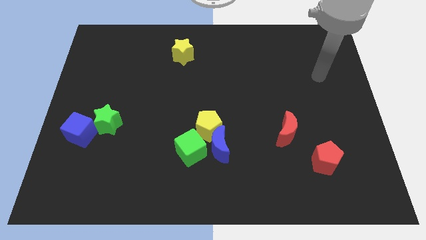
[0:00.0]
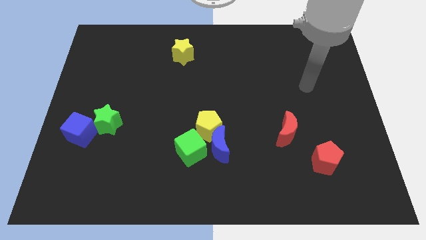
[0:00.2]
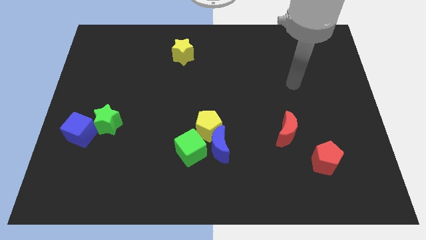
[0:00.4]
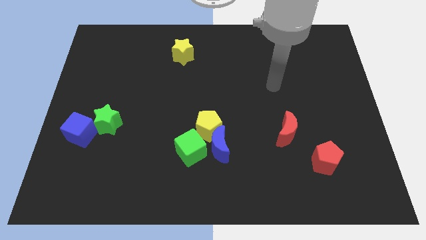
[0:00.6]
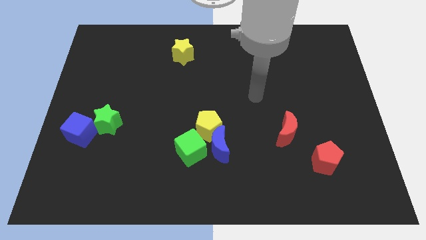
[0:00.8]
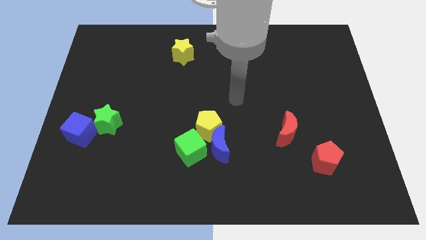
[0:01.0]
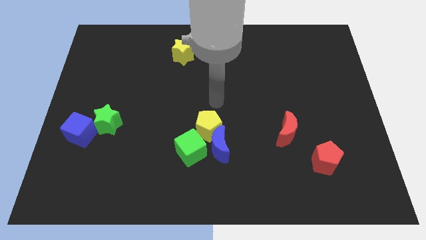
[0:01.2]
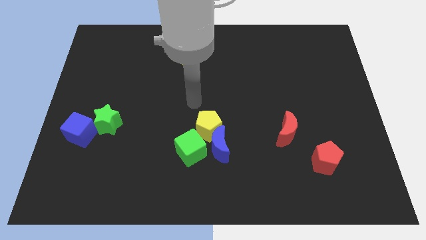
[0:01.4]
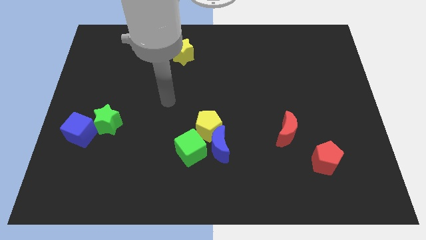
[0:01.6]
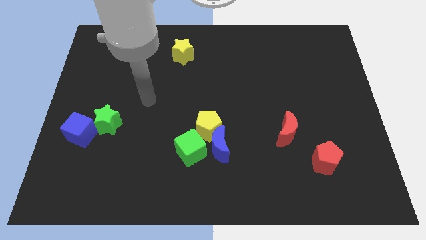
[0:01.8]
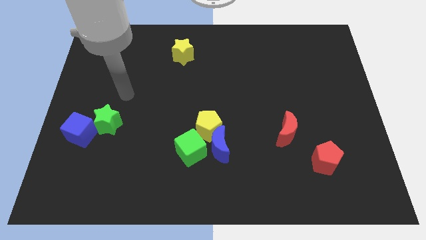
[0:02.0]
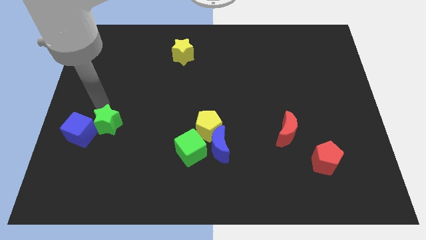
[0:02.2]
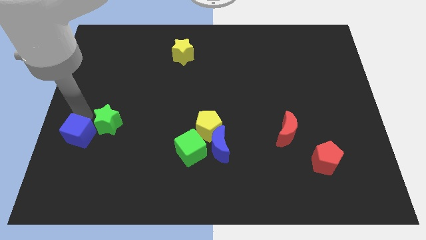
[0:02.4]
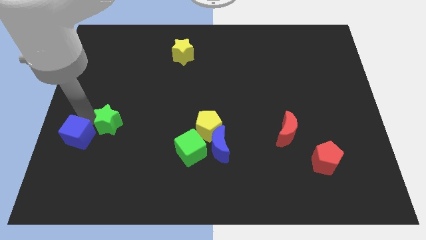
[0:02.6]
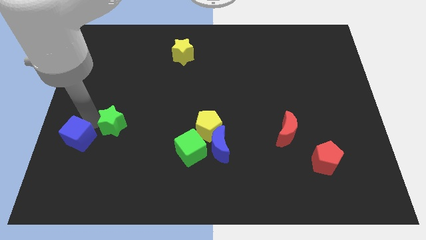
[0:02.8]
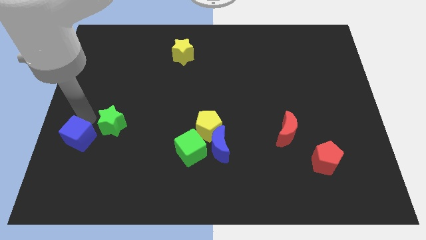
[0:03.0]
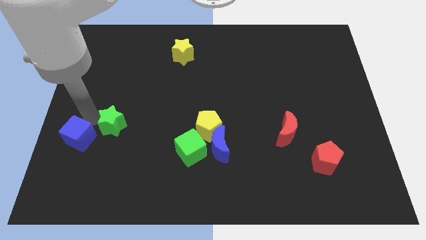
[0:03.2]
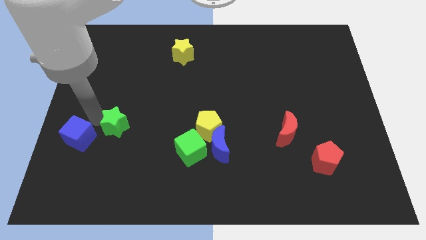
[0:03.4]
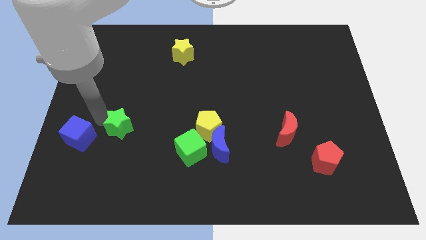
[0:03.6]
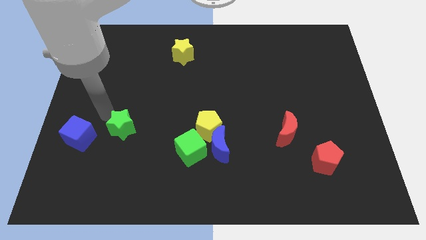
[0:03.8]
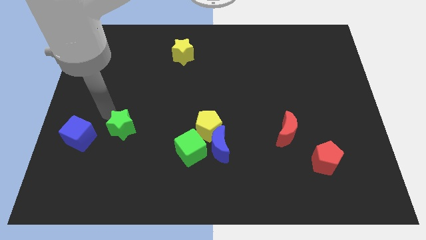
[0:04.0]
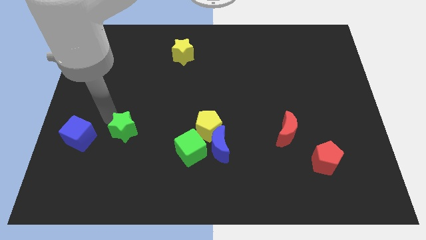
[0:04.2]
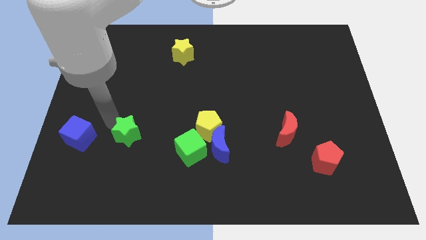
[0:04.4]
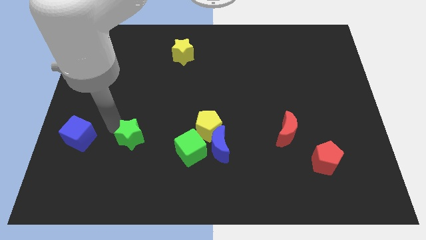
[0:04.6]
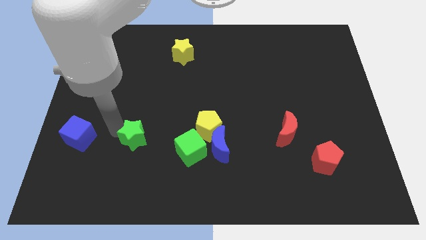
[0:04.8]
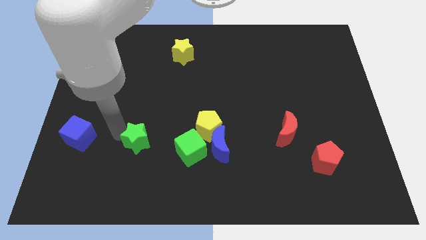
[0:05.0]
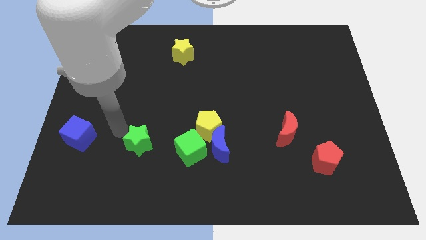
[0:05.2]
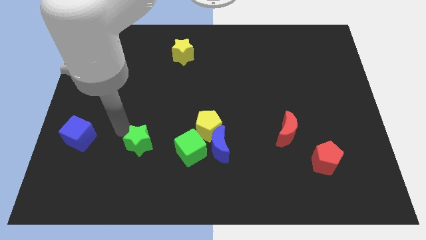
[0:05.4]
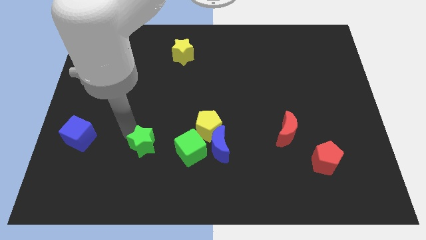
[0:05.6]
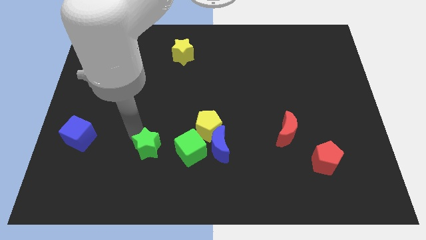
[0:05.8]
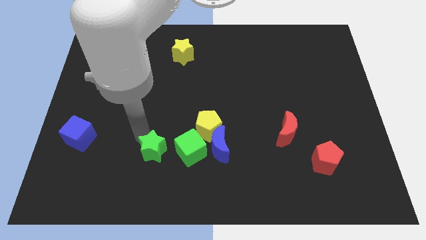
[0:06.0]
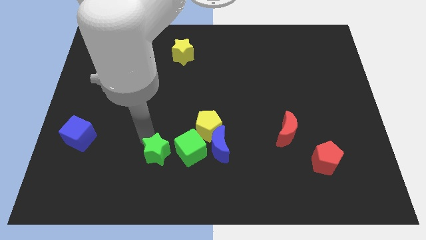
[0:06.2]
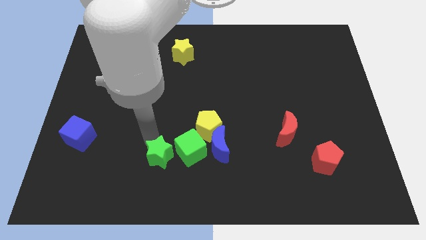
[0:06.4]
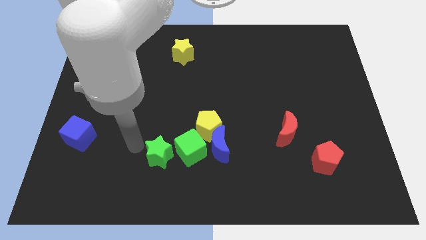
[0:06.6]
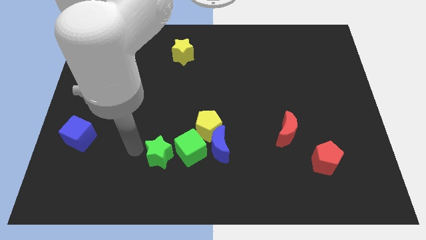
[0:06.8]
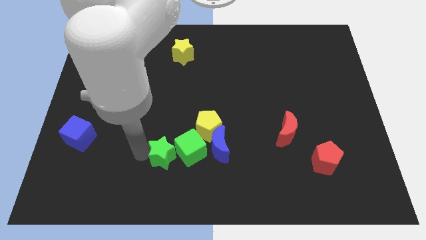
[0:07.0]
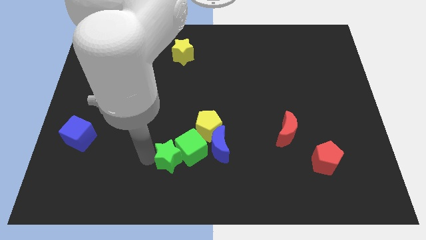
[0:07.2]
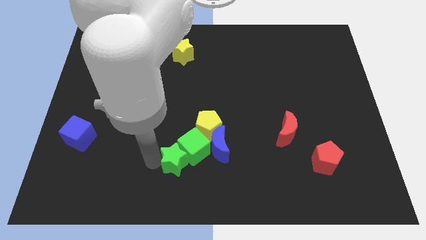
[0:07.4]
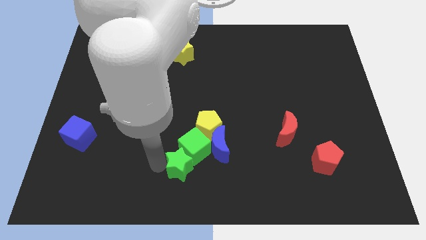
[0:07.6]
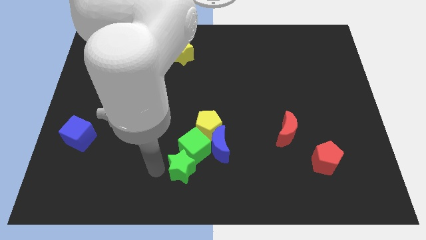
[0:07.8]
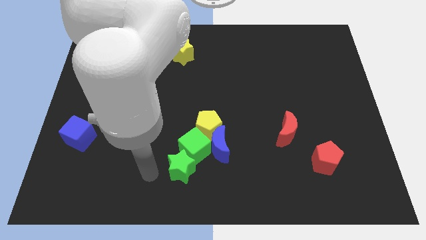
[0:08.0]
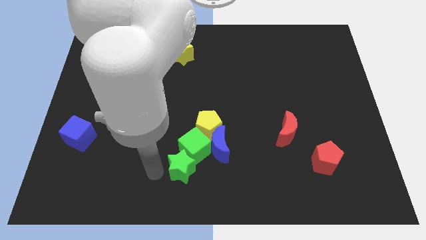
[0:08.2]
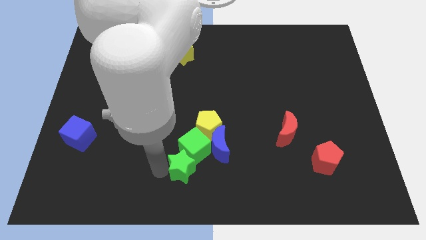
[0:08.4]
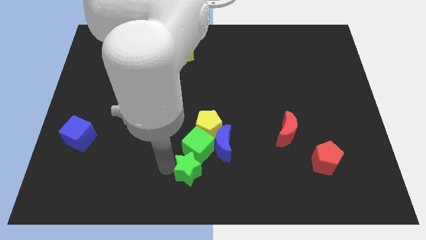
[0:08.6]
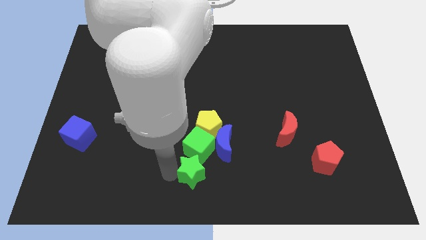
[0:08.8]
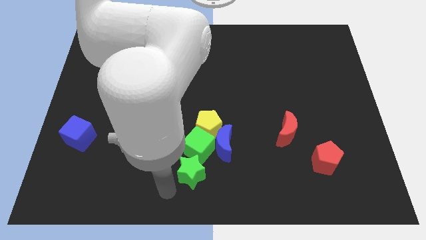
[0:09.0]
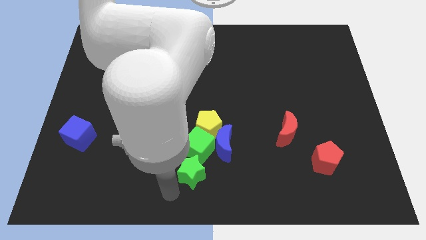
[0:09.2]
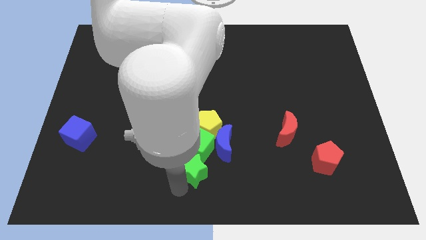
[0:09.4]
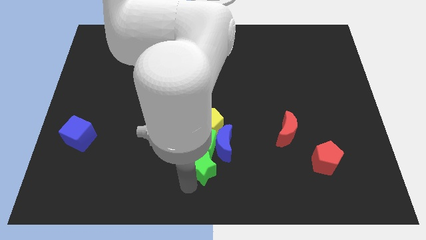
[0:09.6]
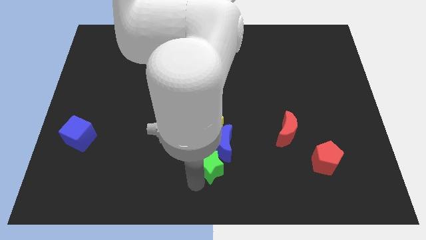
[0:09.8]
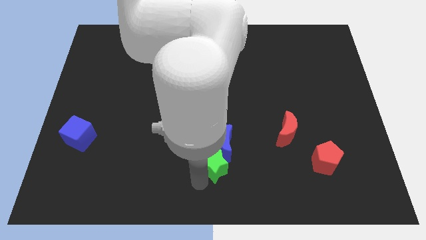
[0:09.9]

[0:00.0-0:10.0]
move the green star towards the blue moon

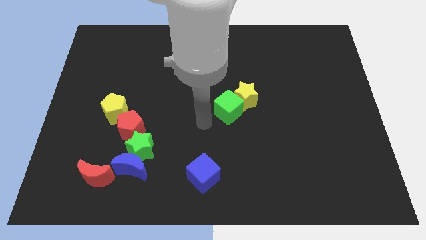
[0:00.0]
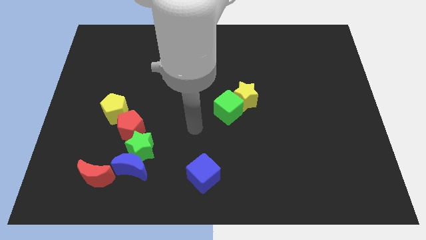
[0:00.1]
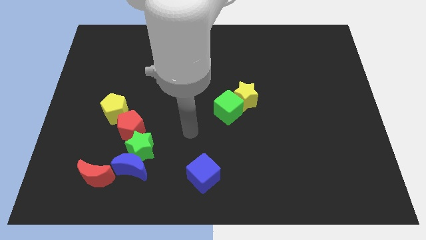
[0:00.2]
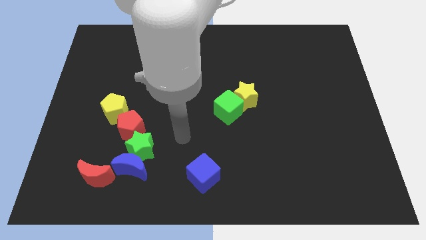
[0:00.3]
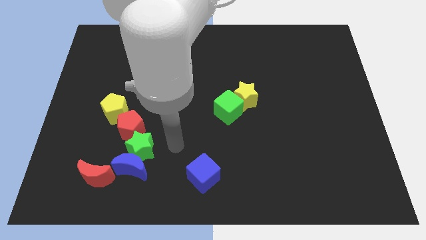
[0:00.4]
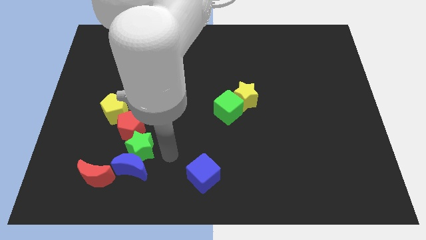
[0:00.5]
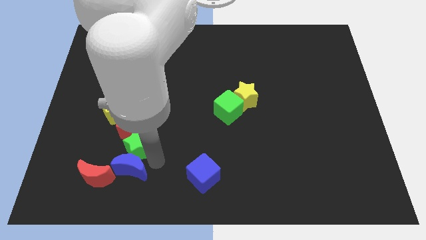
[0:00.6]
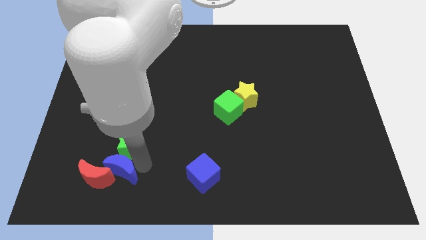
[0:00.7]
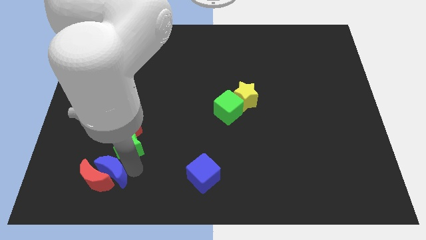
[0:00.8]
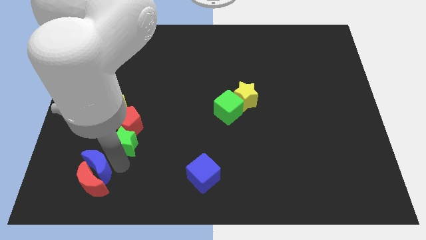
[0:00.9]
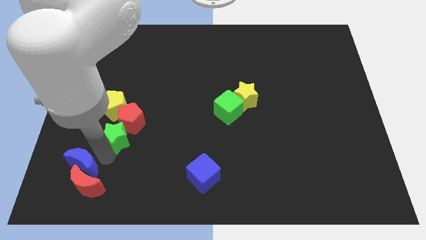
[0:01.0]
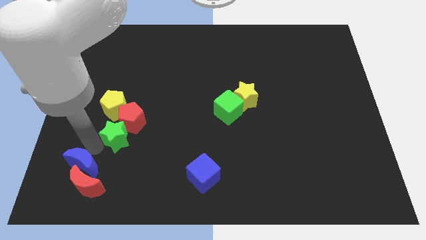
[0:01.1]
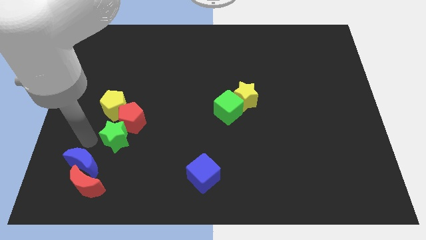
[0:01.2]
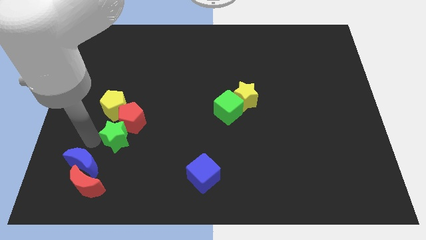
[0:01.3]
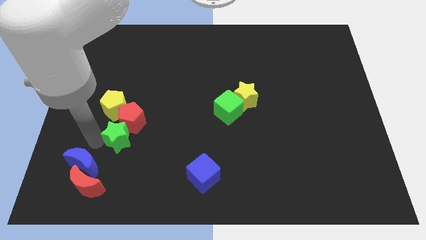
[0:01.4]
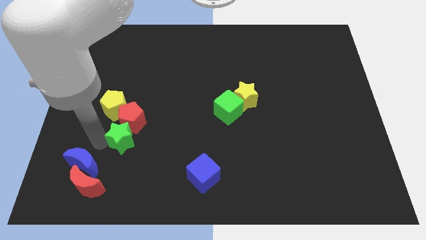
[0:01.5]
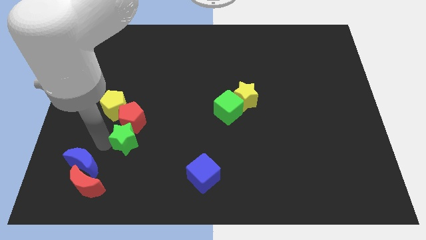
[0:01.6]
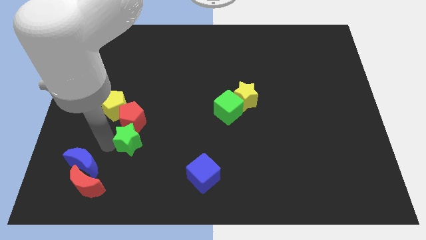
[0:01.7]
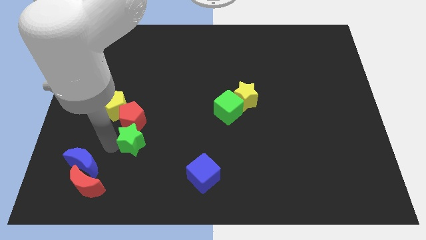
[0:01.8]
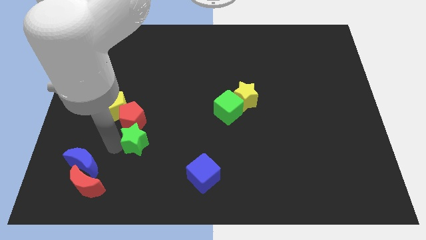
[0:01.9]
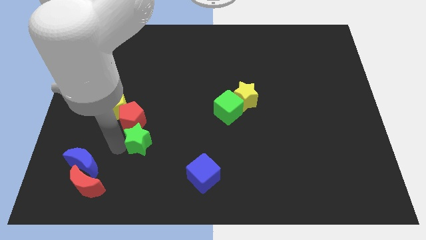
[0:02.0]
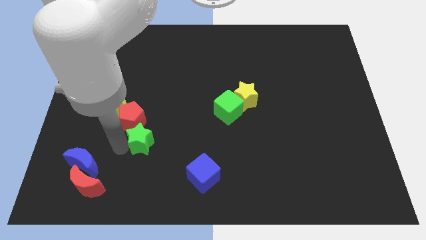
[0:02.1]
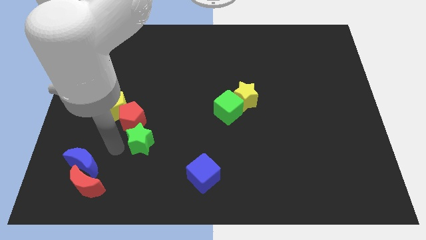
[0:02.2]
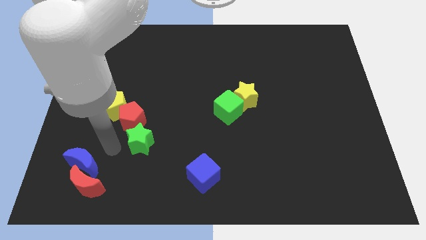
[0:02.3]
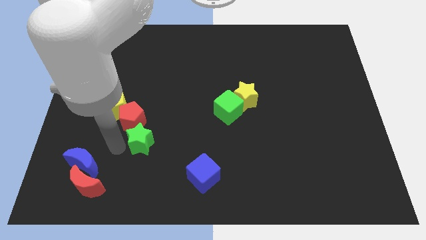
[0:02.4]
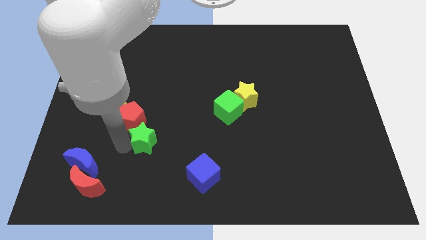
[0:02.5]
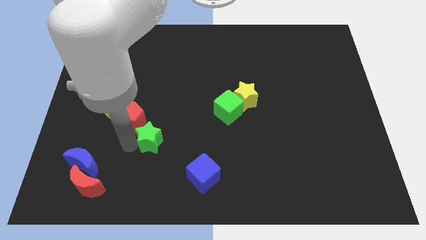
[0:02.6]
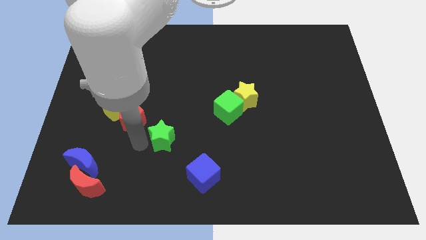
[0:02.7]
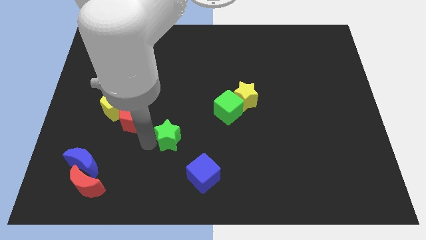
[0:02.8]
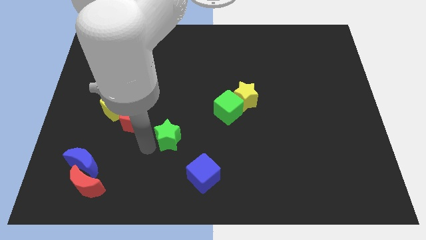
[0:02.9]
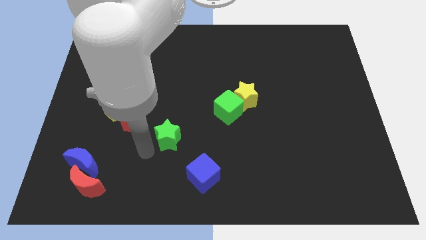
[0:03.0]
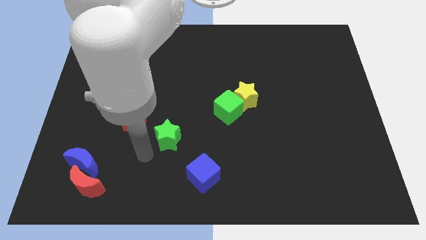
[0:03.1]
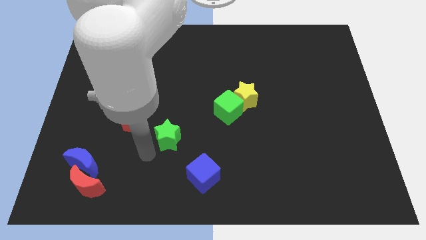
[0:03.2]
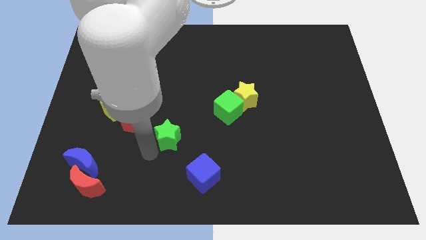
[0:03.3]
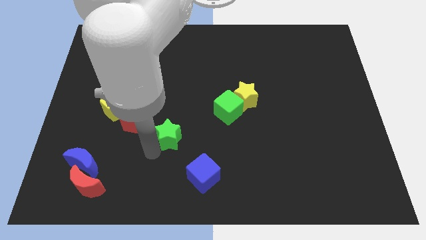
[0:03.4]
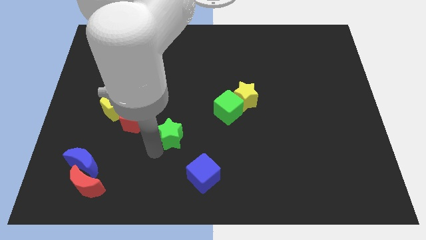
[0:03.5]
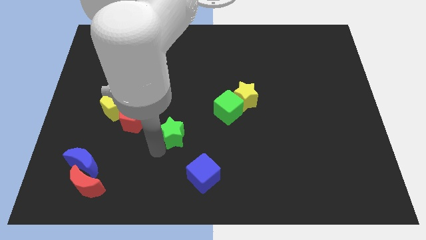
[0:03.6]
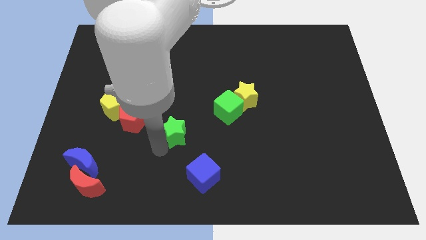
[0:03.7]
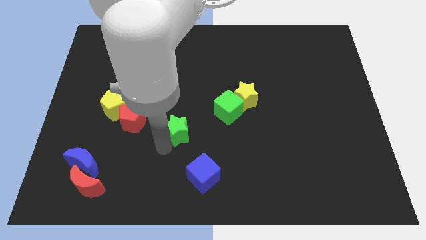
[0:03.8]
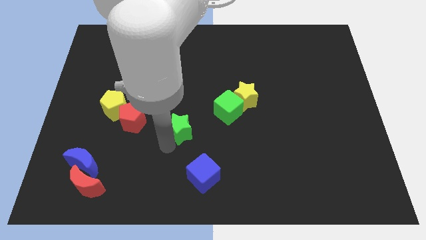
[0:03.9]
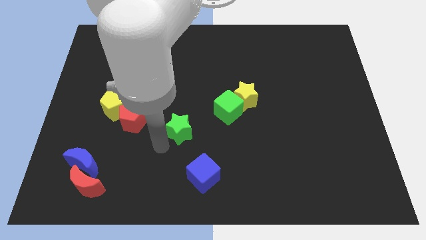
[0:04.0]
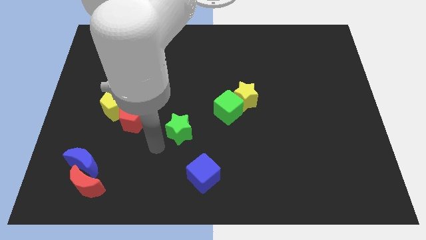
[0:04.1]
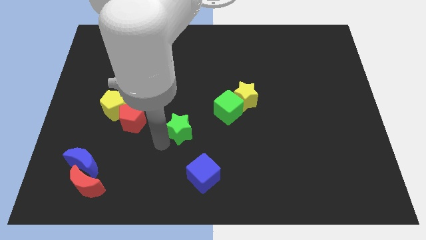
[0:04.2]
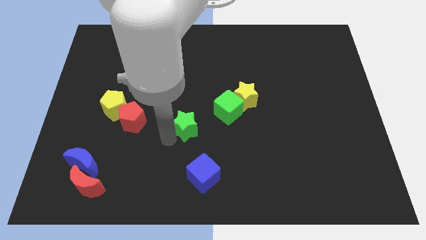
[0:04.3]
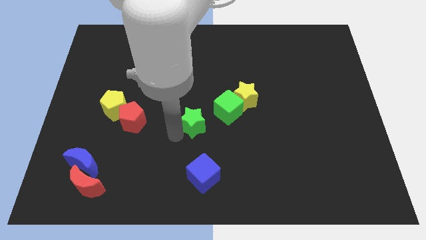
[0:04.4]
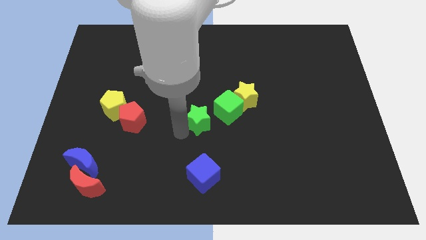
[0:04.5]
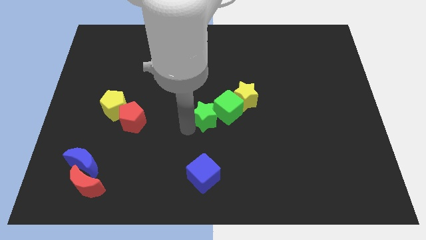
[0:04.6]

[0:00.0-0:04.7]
move the green star close to the green cube
